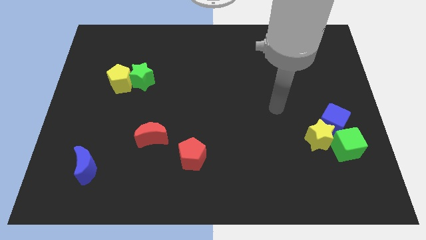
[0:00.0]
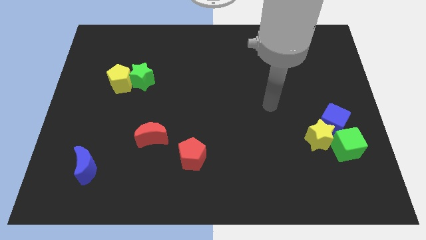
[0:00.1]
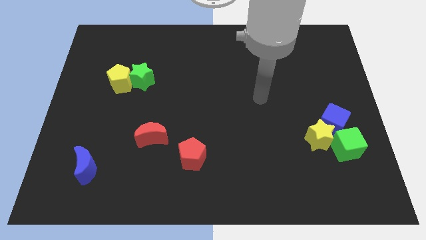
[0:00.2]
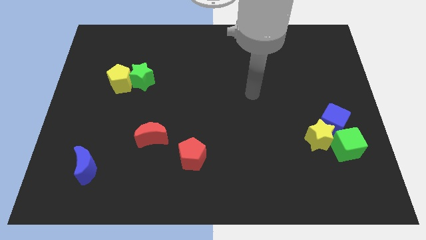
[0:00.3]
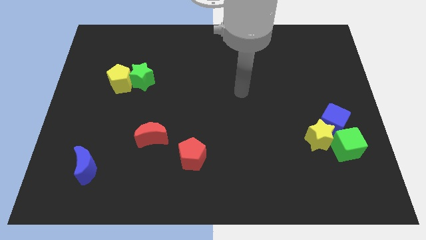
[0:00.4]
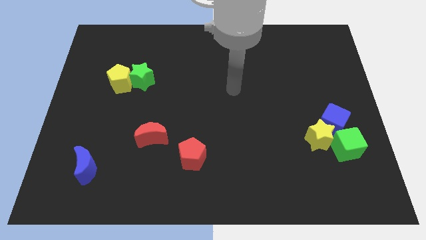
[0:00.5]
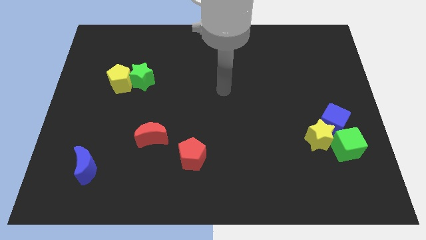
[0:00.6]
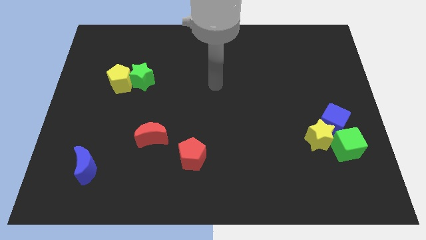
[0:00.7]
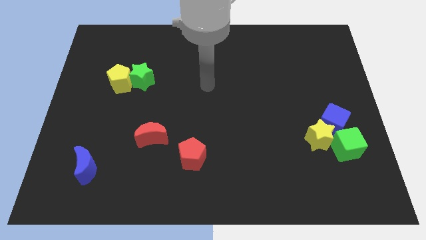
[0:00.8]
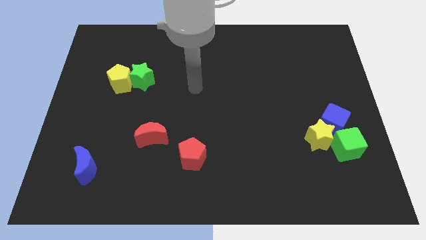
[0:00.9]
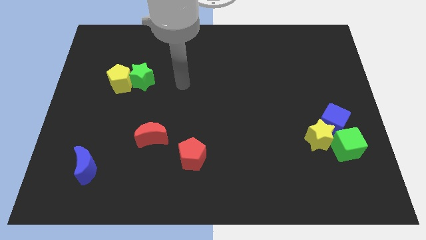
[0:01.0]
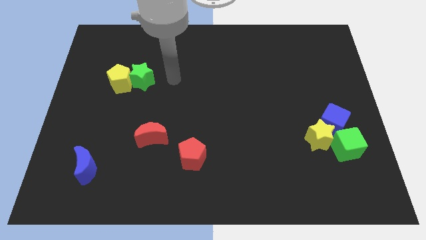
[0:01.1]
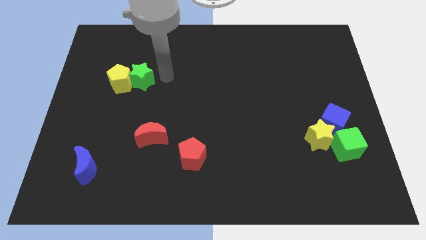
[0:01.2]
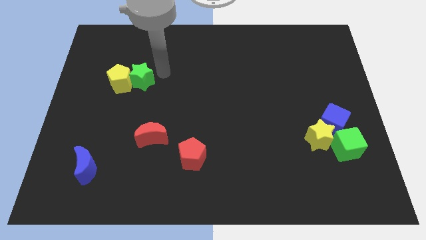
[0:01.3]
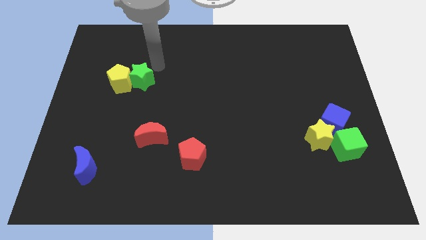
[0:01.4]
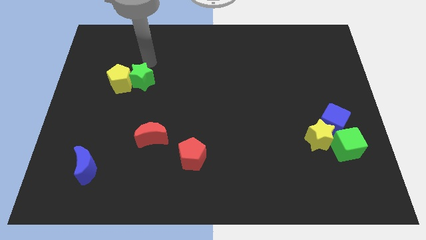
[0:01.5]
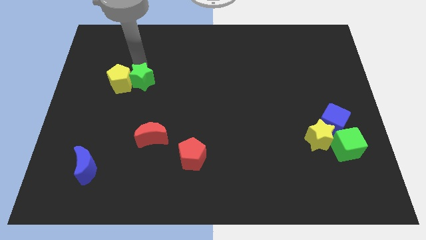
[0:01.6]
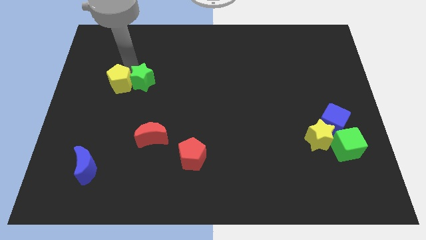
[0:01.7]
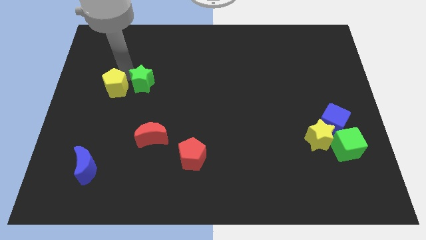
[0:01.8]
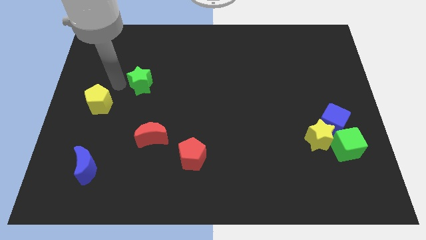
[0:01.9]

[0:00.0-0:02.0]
separate the green star from the yellow pentagon

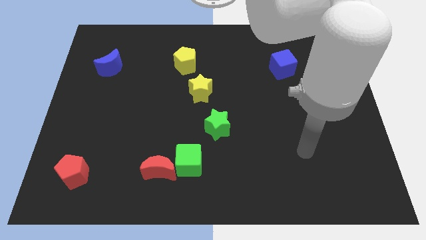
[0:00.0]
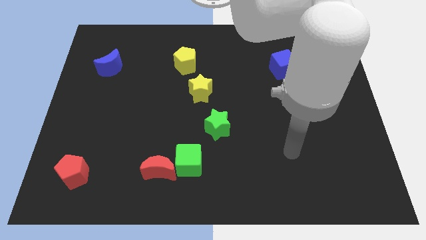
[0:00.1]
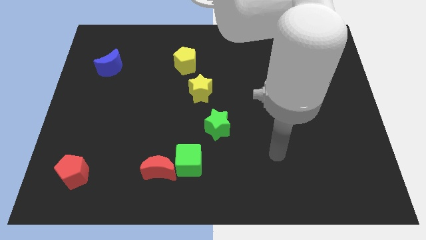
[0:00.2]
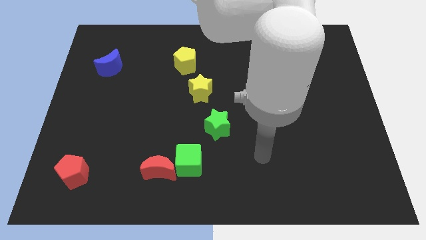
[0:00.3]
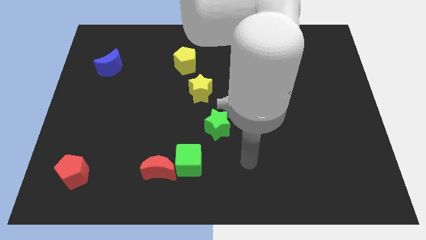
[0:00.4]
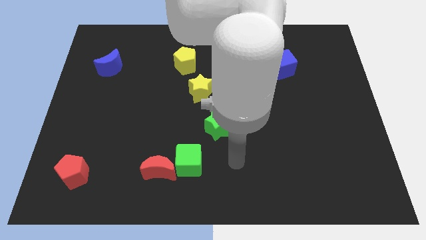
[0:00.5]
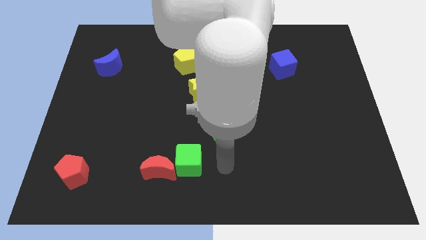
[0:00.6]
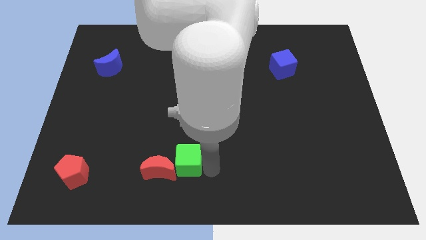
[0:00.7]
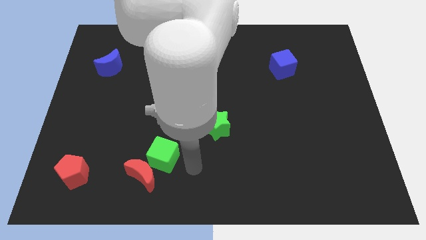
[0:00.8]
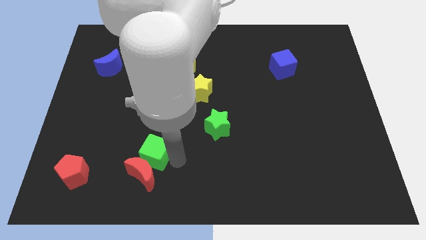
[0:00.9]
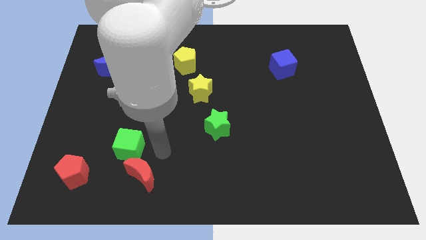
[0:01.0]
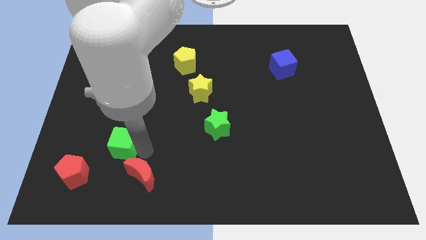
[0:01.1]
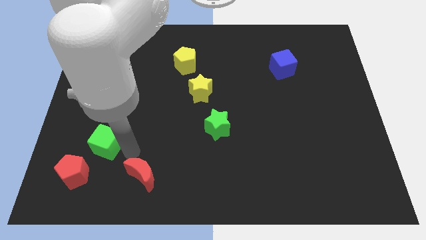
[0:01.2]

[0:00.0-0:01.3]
pull the red moon apart from the green cube

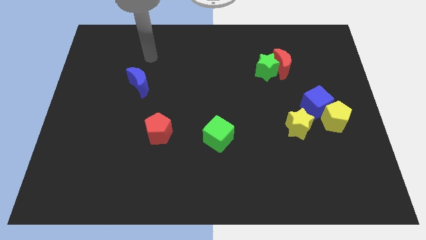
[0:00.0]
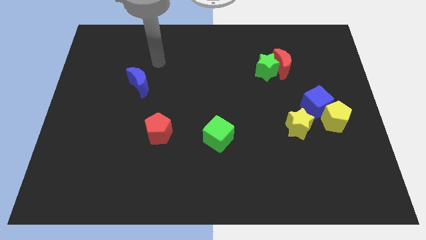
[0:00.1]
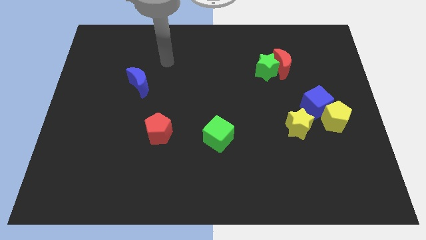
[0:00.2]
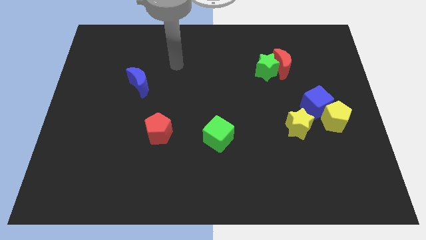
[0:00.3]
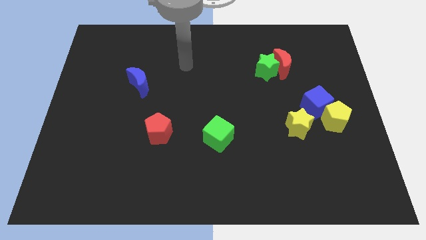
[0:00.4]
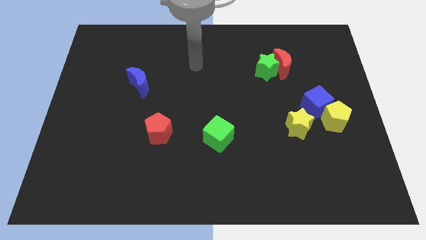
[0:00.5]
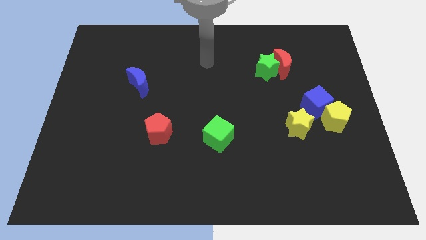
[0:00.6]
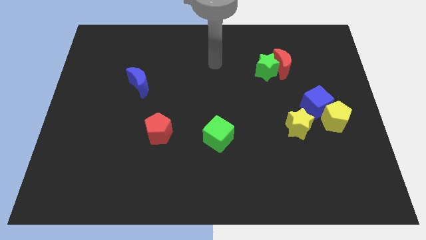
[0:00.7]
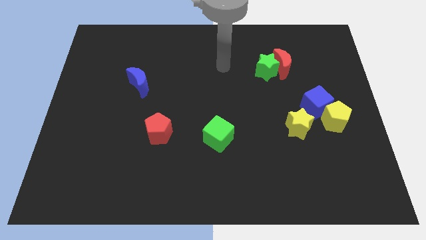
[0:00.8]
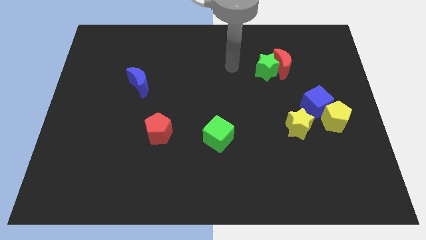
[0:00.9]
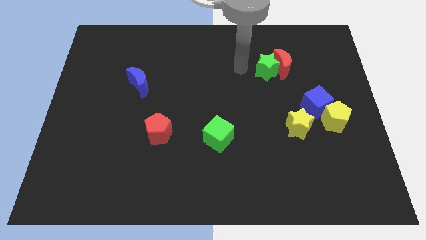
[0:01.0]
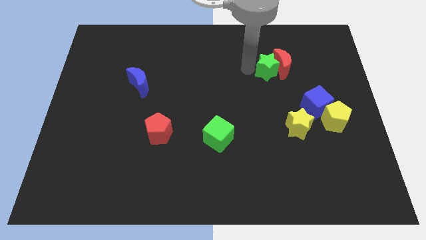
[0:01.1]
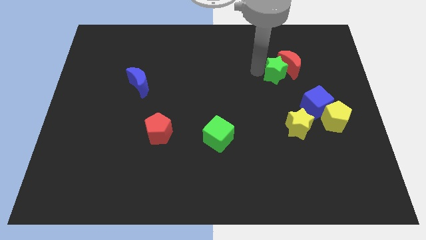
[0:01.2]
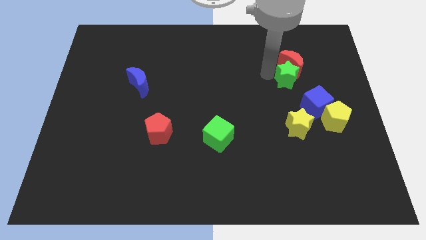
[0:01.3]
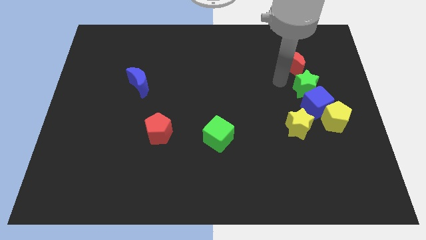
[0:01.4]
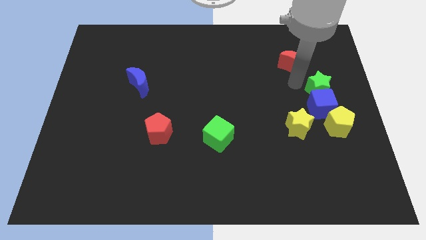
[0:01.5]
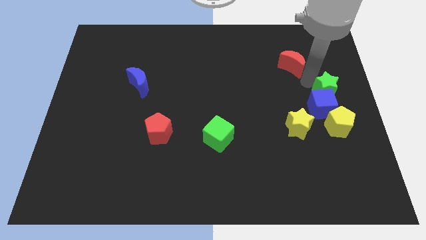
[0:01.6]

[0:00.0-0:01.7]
separate the red moon from the green star

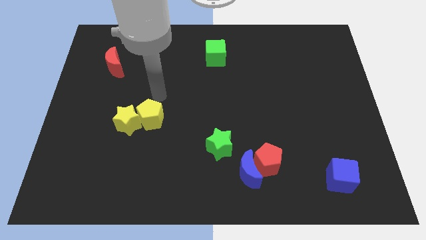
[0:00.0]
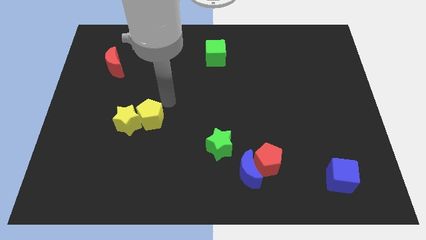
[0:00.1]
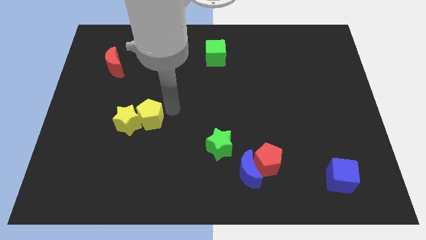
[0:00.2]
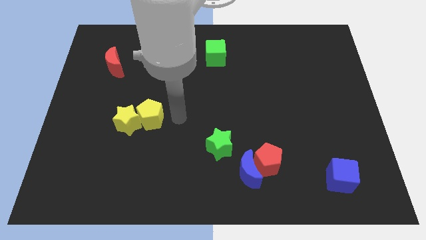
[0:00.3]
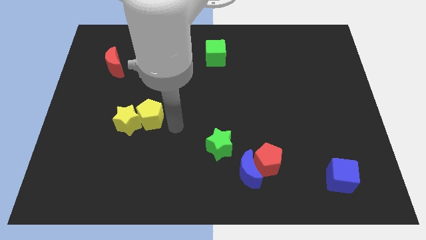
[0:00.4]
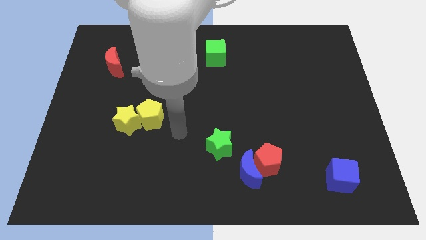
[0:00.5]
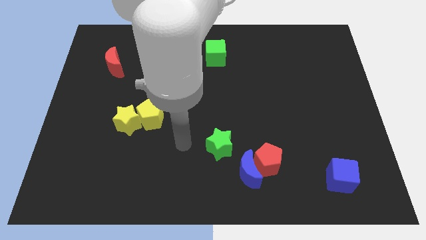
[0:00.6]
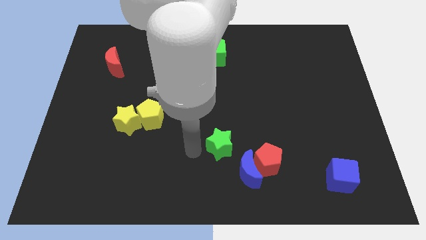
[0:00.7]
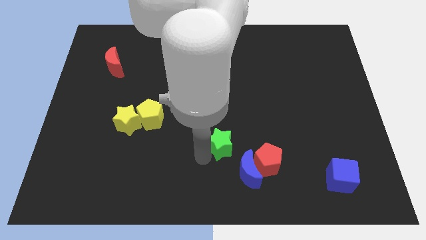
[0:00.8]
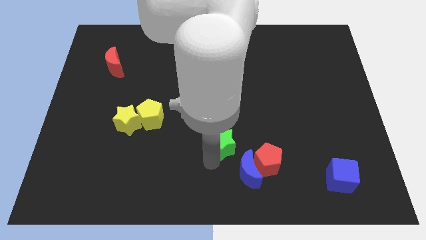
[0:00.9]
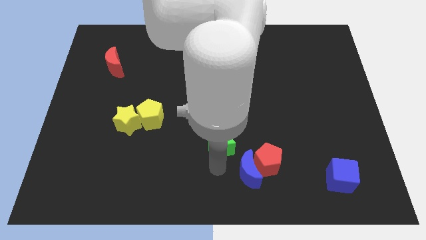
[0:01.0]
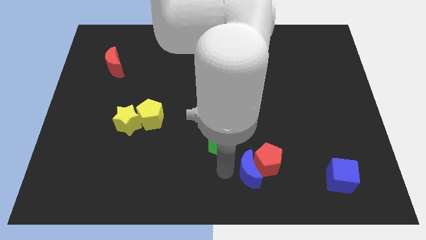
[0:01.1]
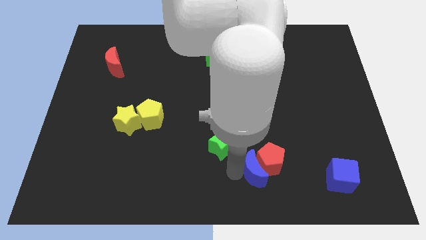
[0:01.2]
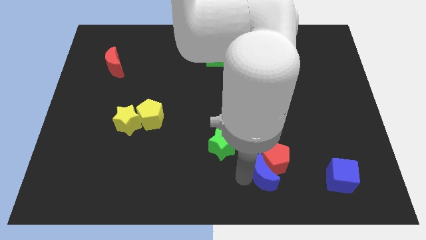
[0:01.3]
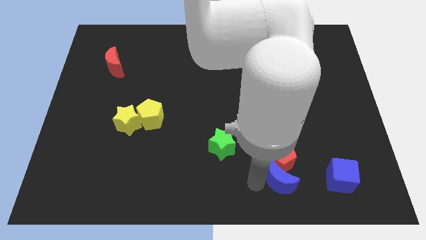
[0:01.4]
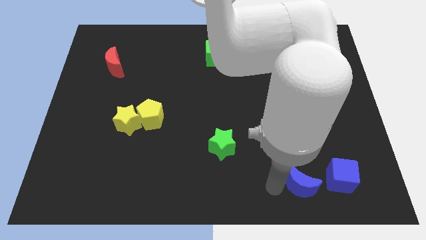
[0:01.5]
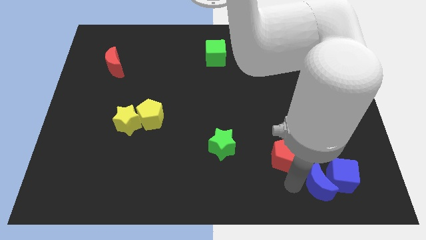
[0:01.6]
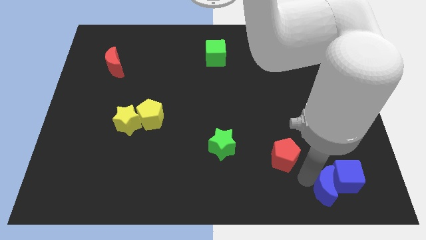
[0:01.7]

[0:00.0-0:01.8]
separate the red pentagon from the blue moon

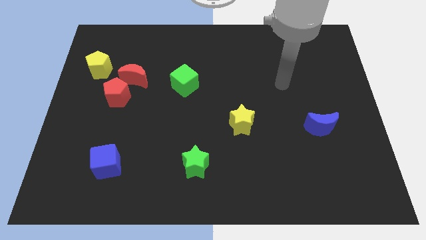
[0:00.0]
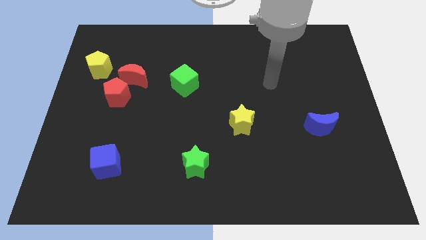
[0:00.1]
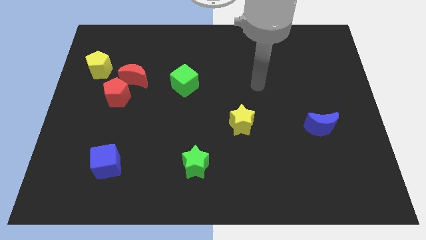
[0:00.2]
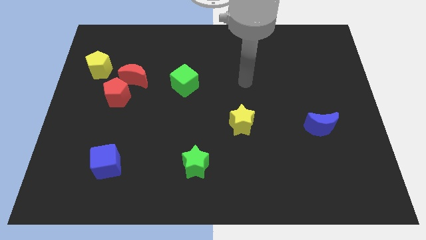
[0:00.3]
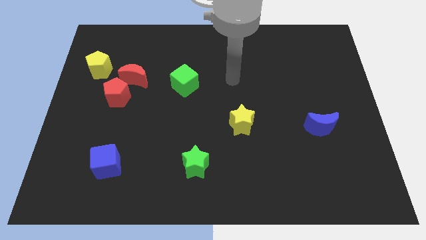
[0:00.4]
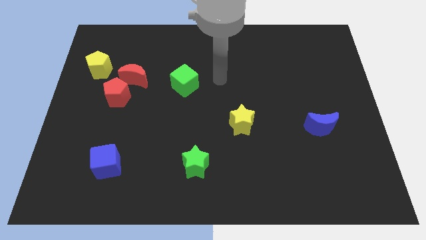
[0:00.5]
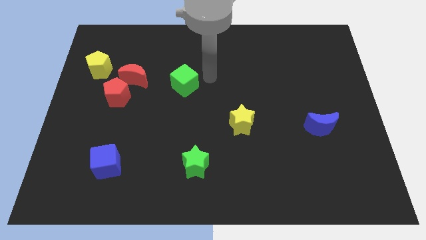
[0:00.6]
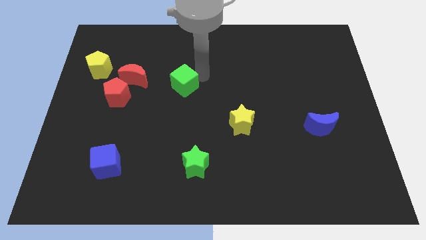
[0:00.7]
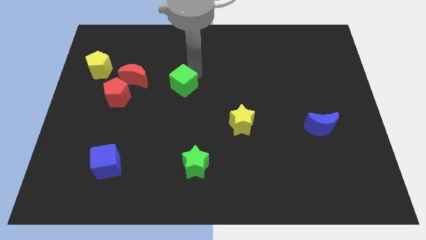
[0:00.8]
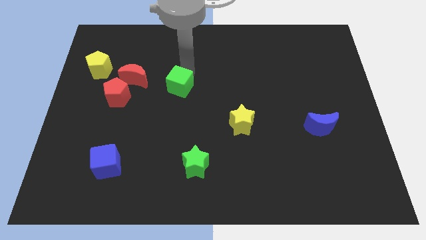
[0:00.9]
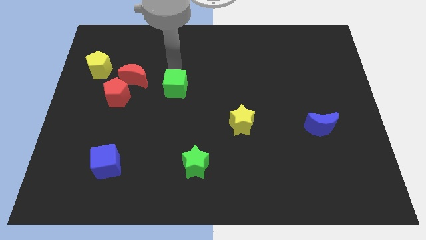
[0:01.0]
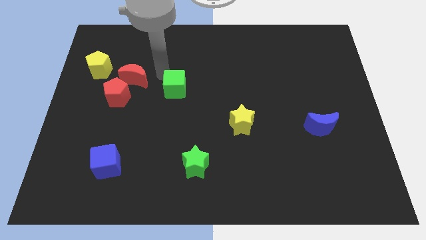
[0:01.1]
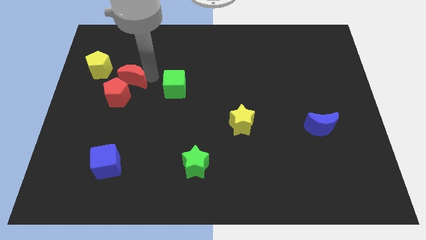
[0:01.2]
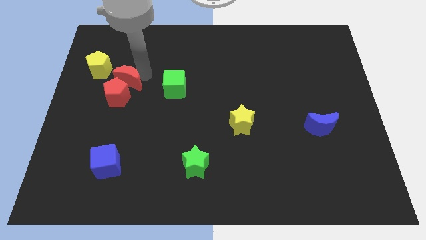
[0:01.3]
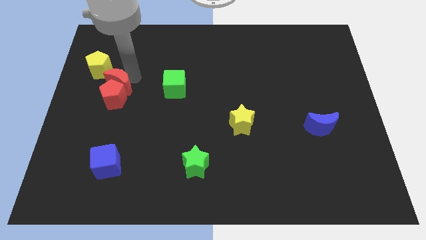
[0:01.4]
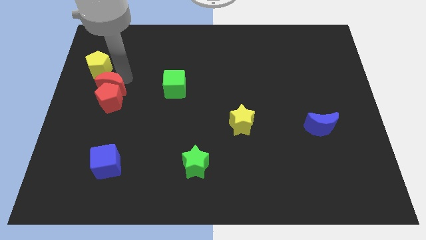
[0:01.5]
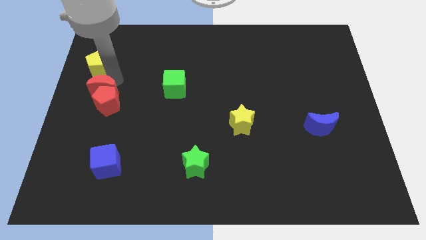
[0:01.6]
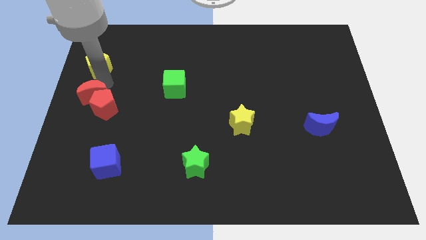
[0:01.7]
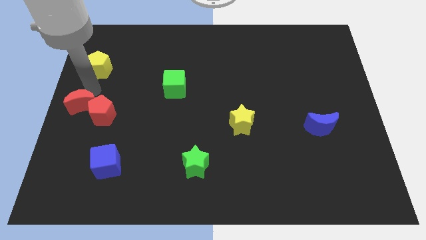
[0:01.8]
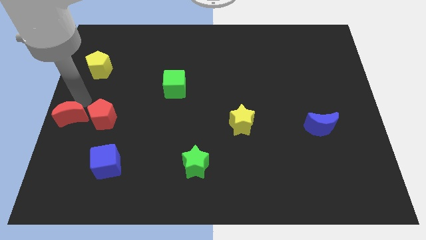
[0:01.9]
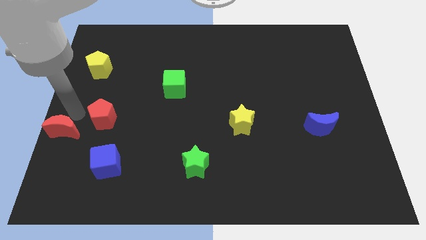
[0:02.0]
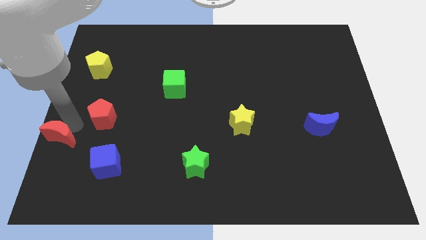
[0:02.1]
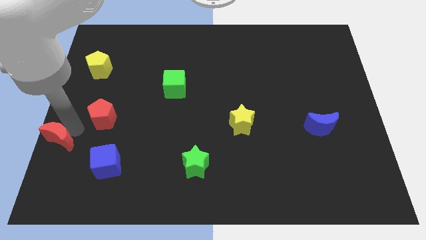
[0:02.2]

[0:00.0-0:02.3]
pull the red pentagon apart from the red moon

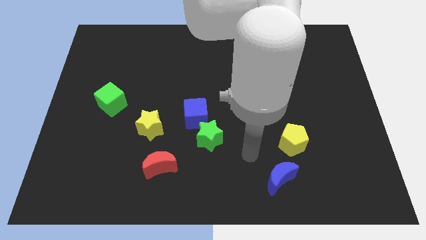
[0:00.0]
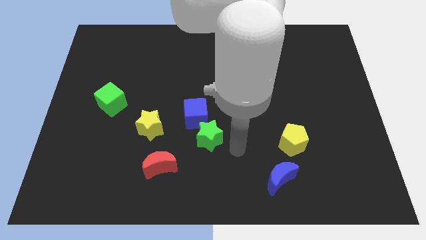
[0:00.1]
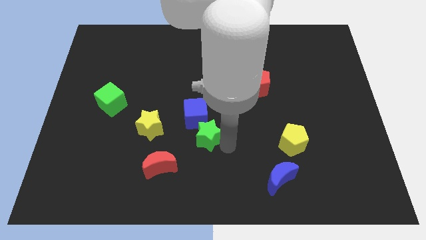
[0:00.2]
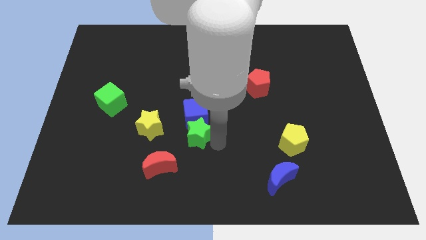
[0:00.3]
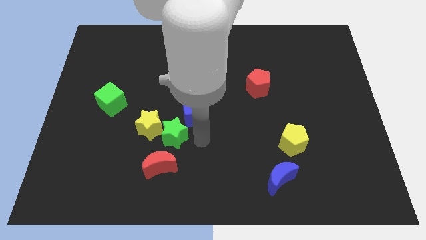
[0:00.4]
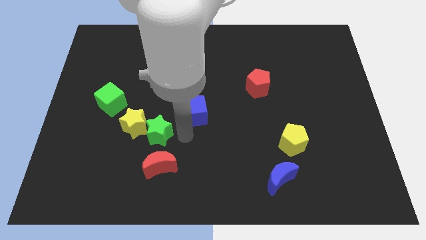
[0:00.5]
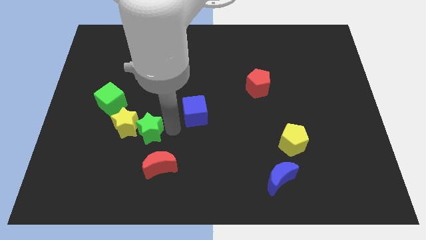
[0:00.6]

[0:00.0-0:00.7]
separate the blue cube from the green star
